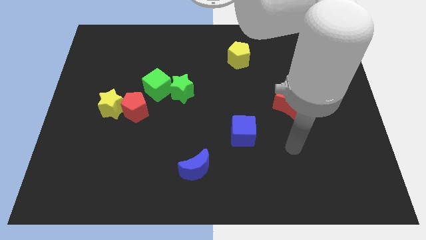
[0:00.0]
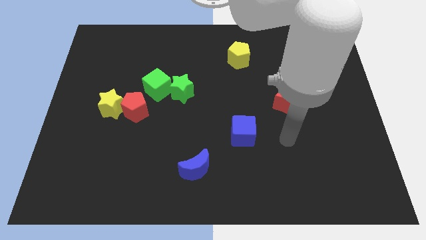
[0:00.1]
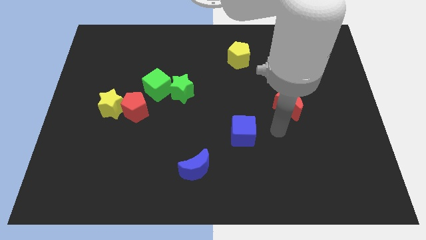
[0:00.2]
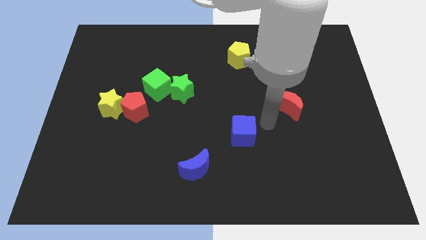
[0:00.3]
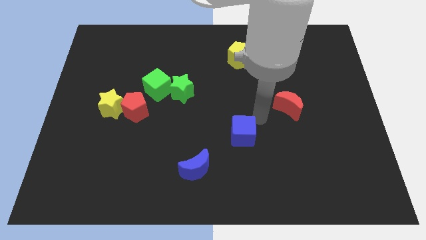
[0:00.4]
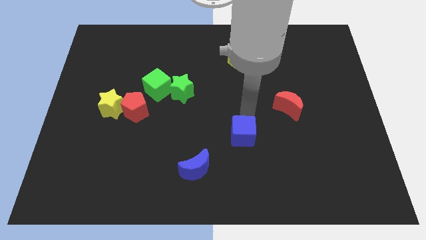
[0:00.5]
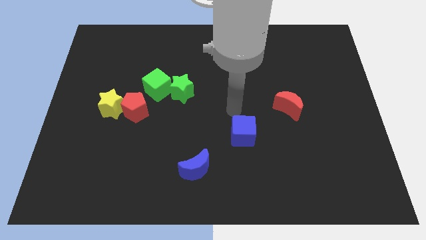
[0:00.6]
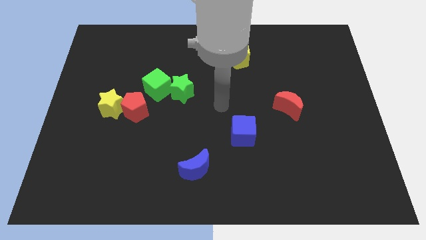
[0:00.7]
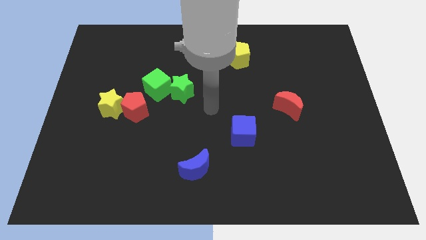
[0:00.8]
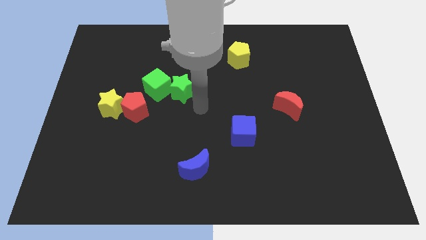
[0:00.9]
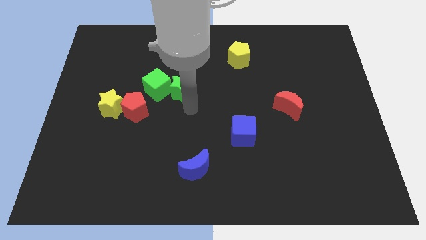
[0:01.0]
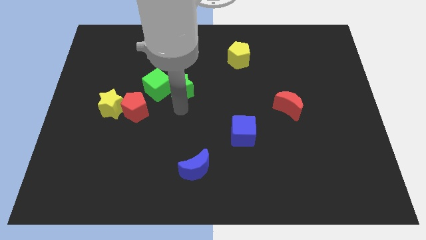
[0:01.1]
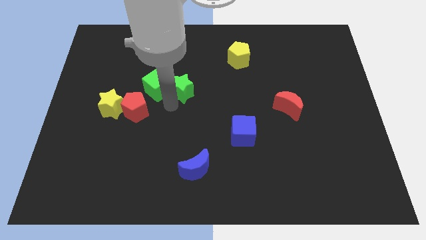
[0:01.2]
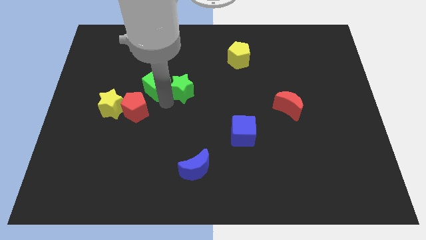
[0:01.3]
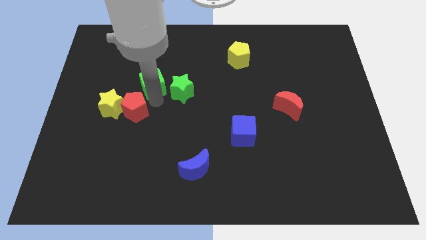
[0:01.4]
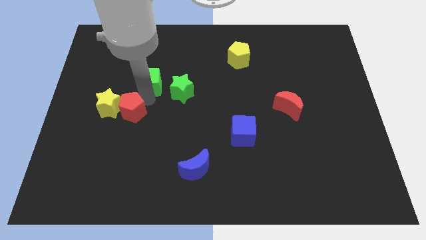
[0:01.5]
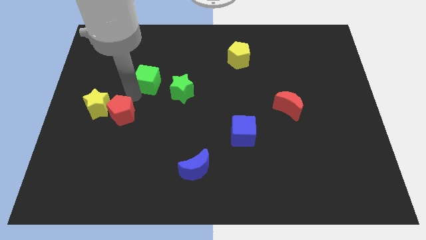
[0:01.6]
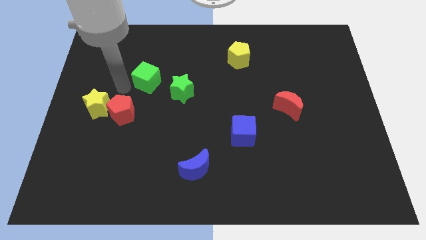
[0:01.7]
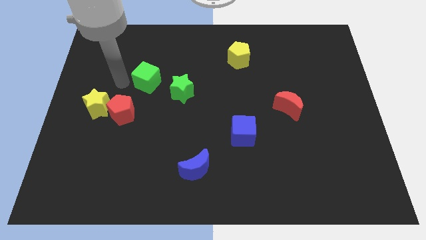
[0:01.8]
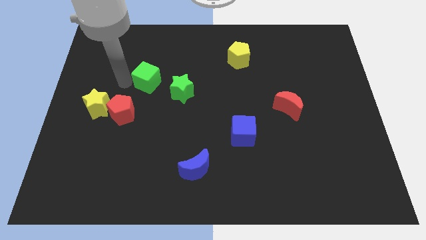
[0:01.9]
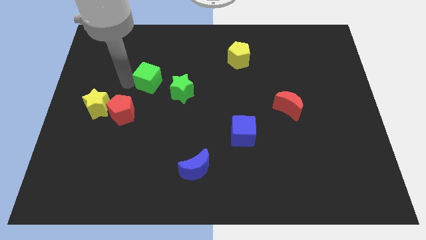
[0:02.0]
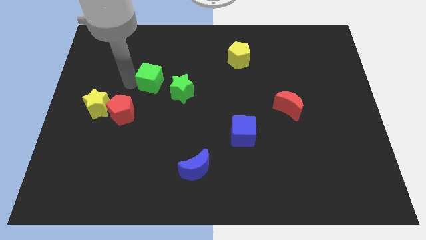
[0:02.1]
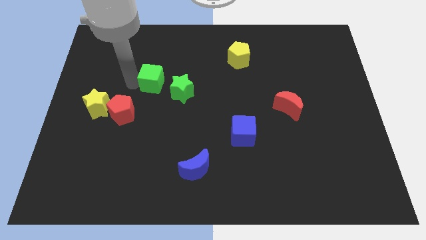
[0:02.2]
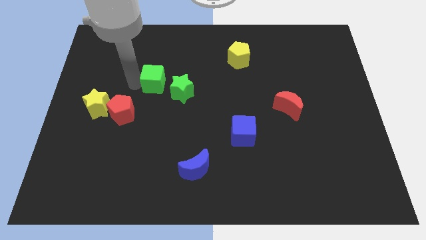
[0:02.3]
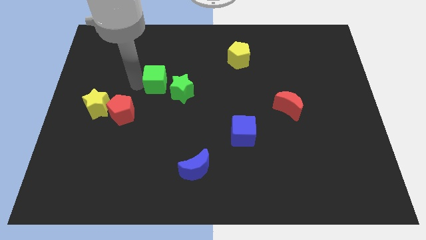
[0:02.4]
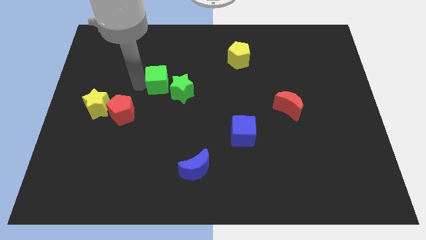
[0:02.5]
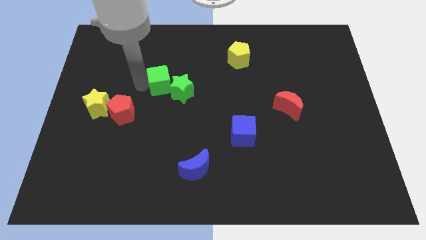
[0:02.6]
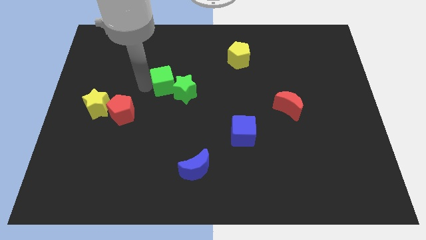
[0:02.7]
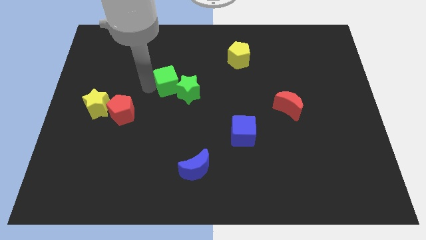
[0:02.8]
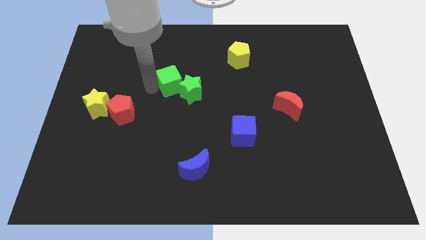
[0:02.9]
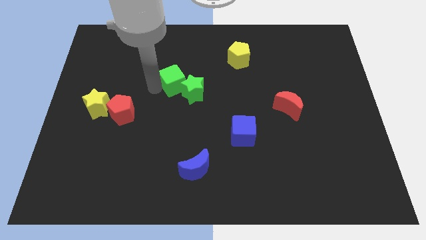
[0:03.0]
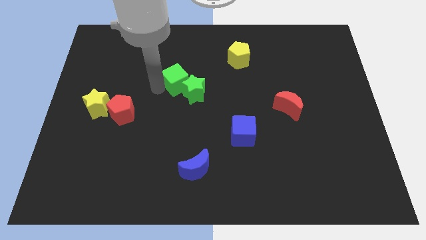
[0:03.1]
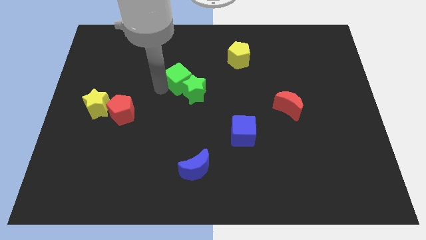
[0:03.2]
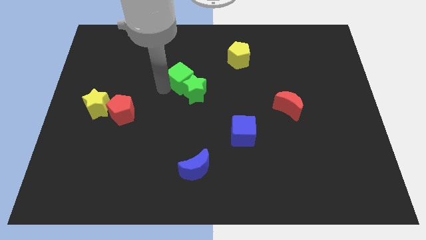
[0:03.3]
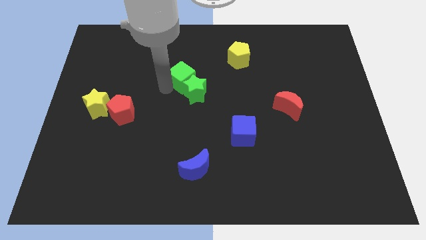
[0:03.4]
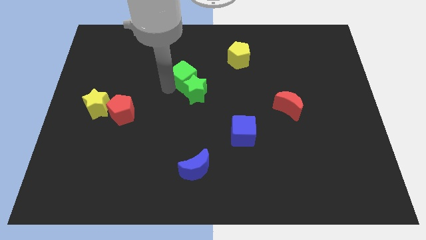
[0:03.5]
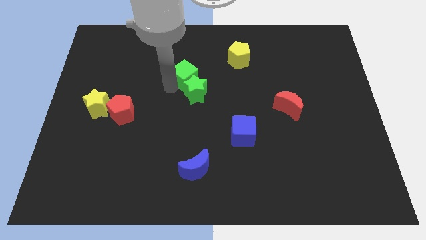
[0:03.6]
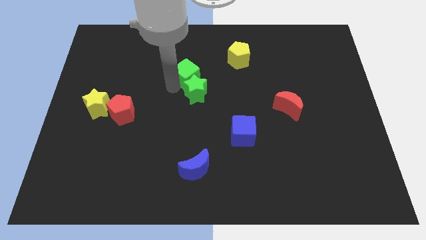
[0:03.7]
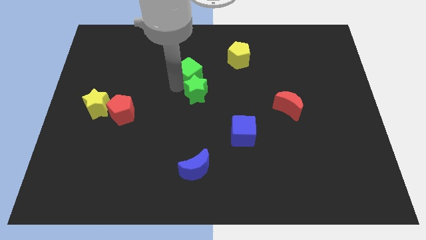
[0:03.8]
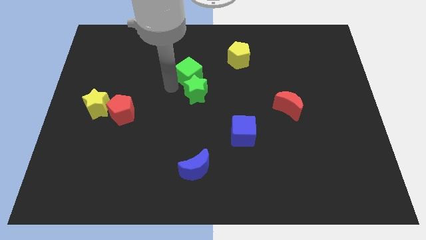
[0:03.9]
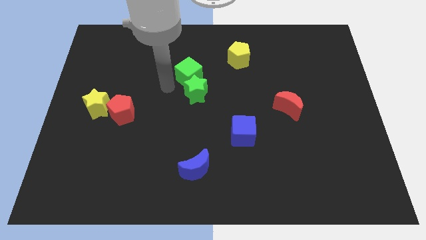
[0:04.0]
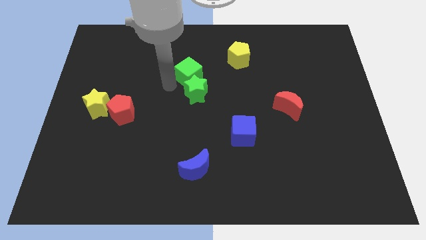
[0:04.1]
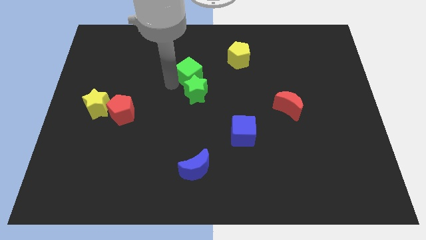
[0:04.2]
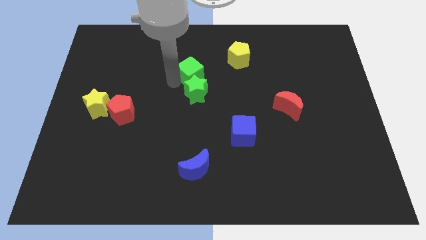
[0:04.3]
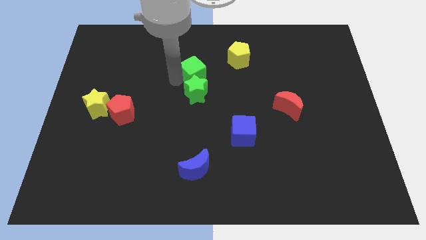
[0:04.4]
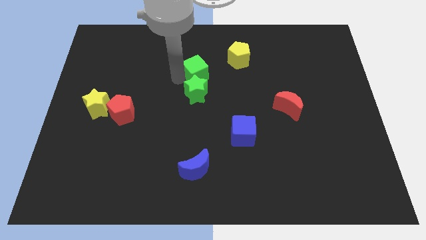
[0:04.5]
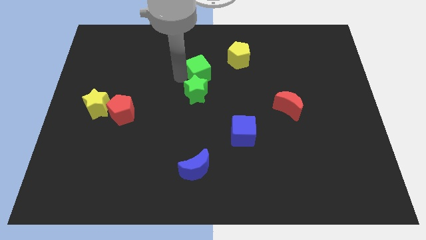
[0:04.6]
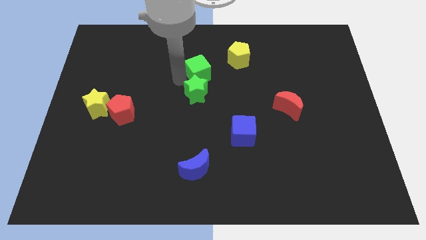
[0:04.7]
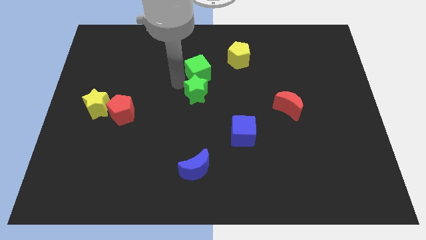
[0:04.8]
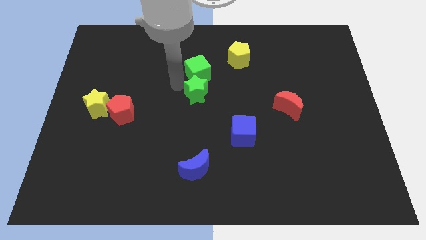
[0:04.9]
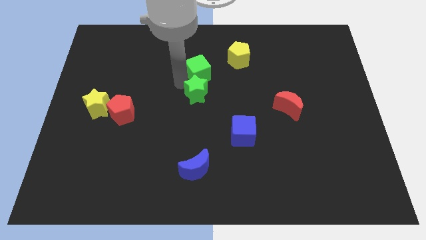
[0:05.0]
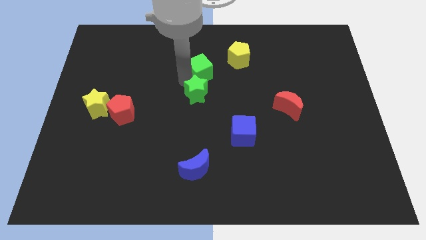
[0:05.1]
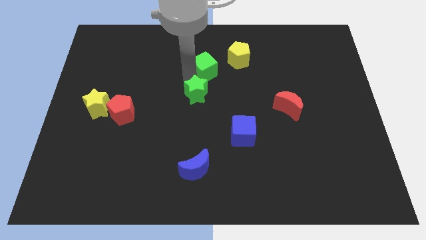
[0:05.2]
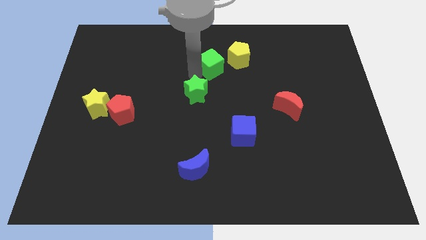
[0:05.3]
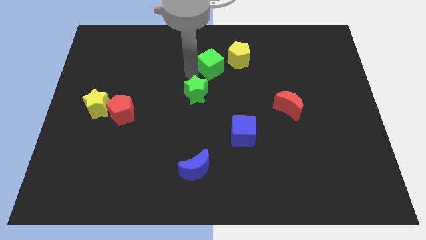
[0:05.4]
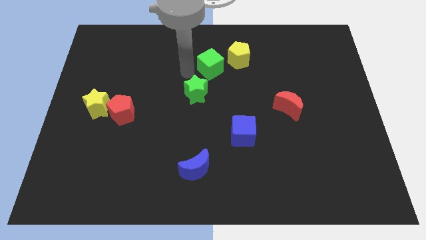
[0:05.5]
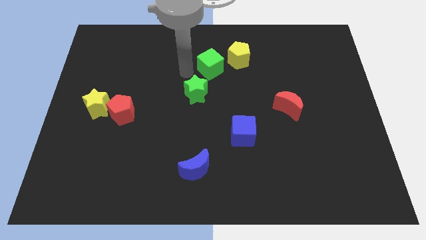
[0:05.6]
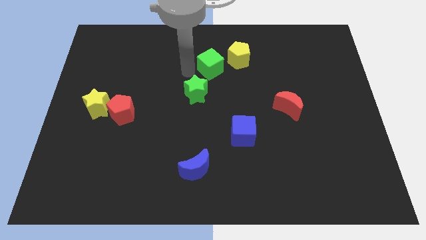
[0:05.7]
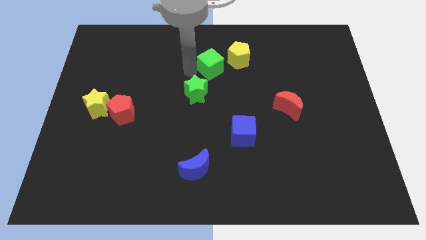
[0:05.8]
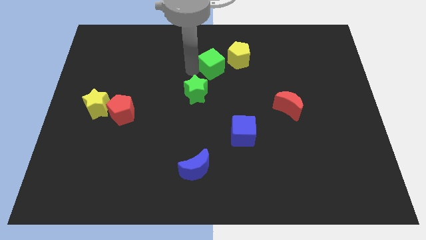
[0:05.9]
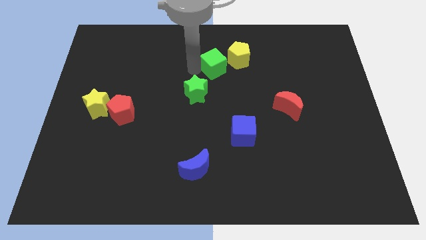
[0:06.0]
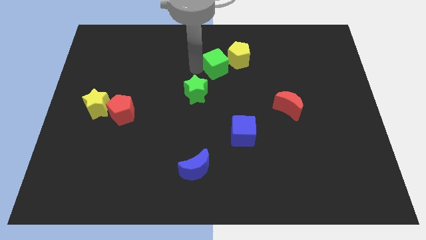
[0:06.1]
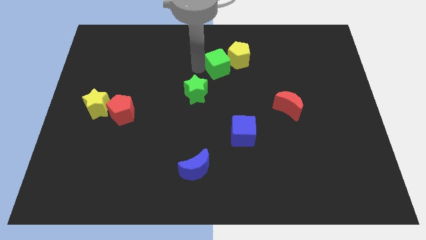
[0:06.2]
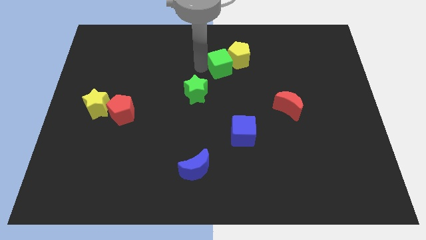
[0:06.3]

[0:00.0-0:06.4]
slide the green cube towards the yellow pentagon
